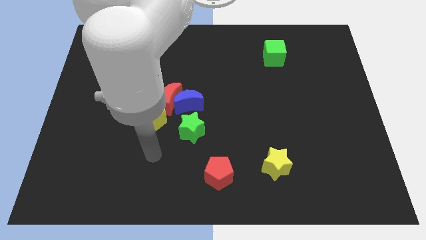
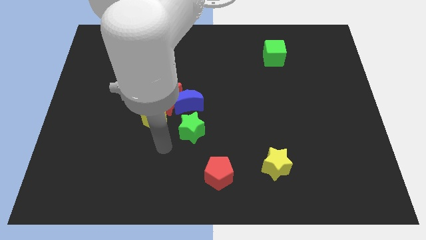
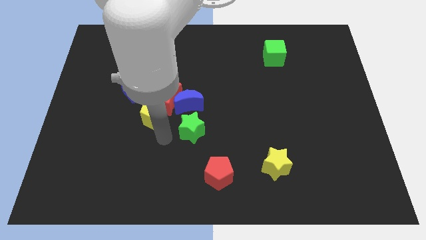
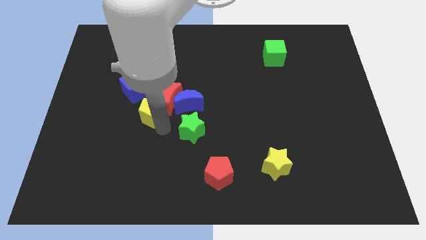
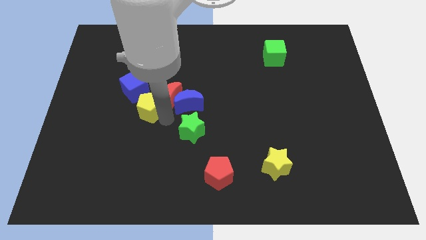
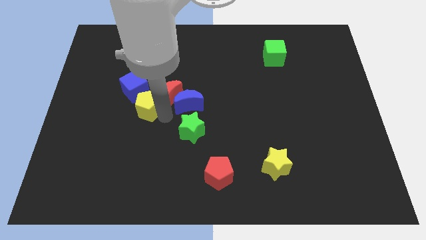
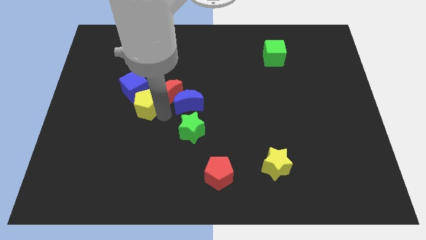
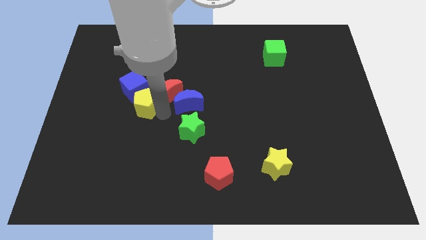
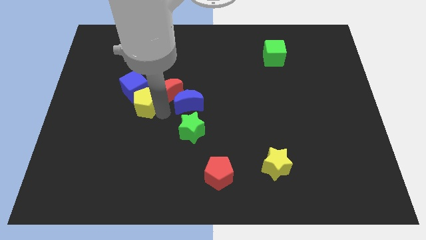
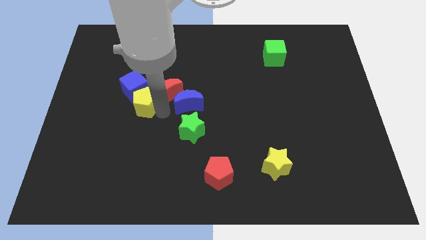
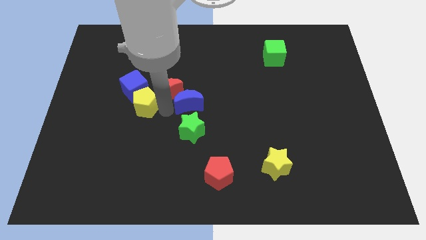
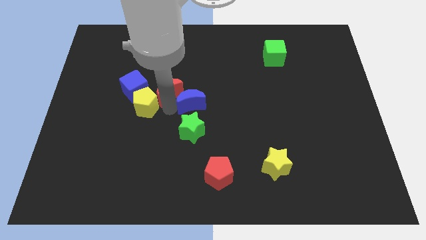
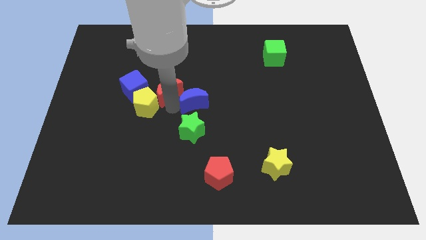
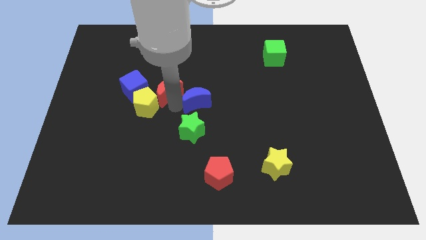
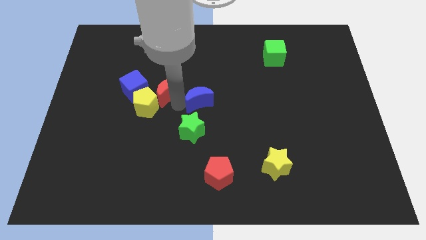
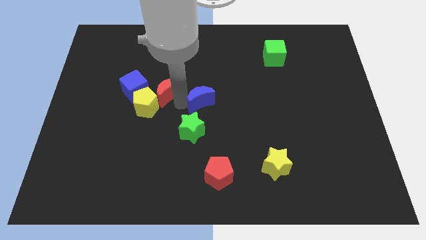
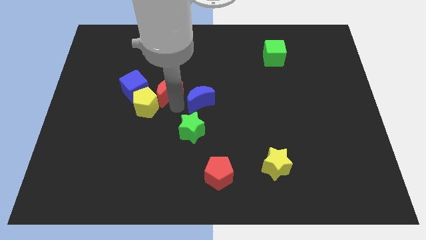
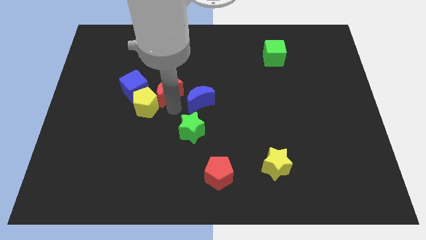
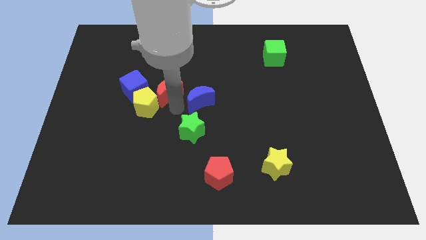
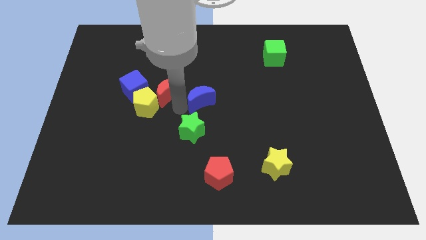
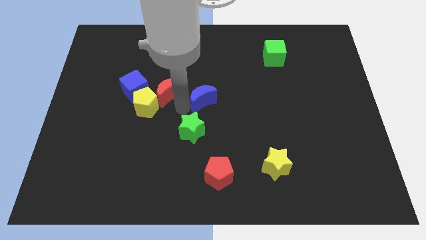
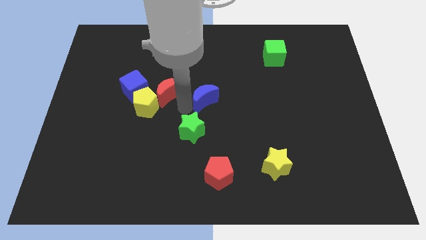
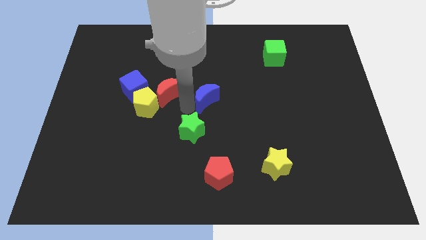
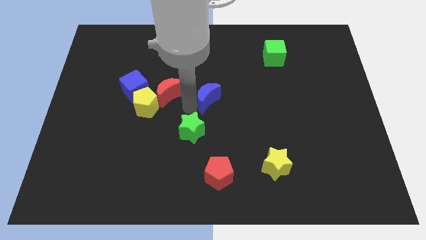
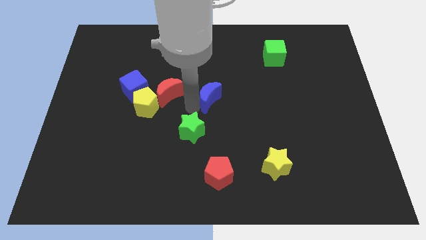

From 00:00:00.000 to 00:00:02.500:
pull the blue moon apart from the red moon, green star, and yellow pentagon

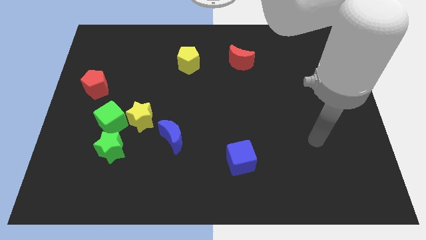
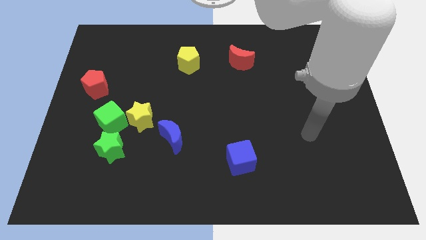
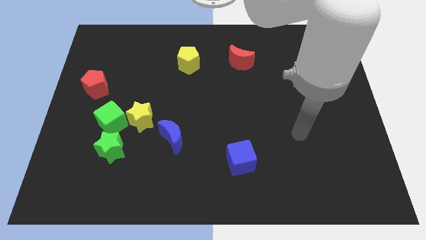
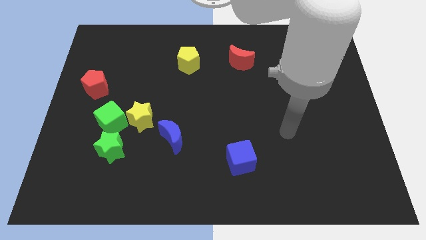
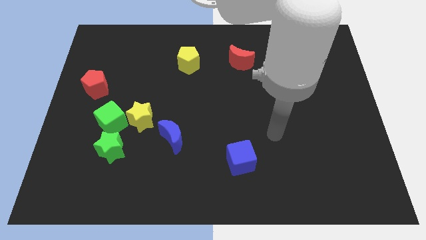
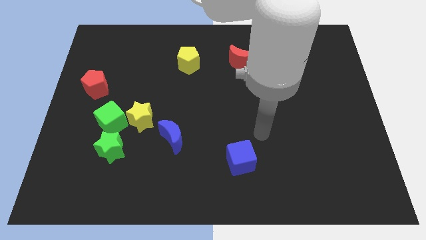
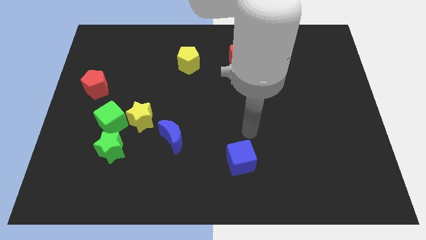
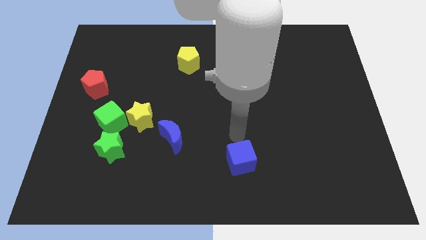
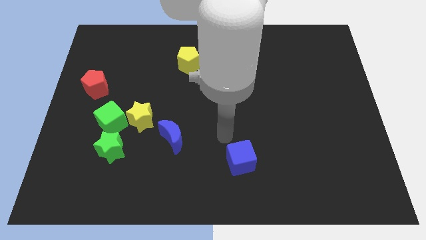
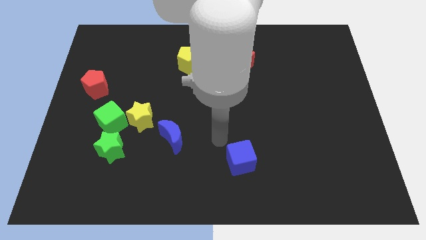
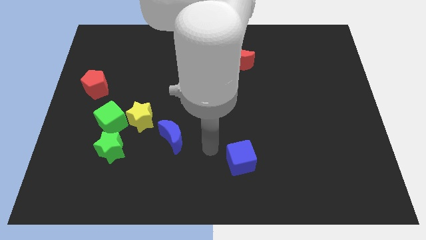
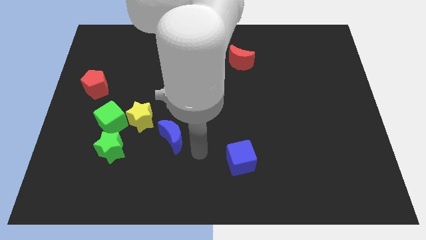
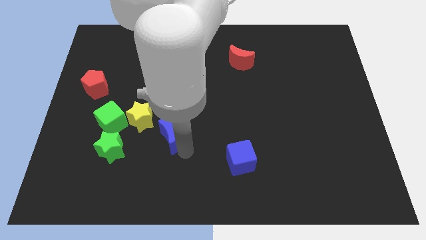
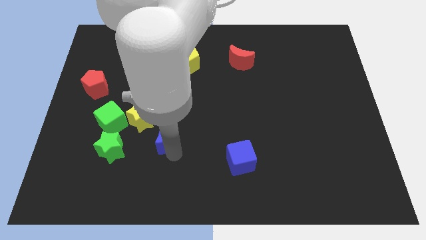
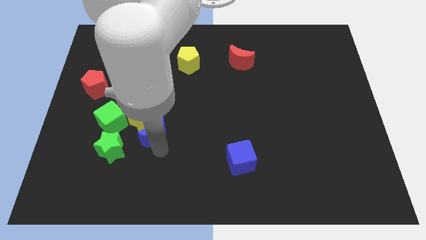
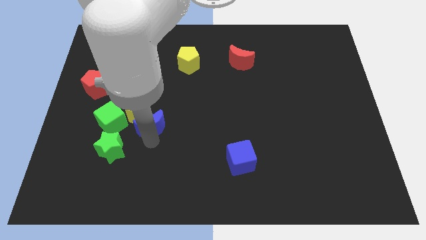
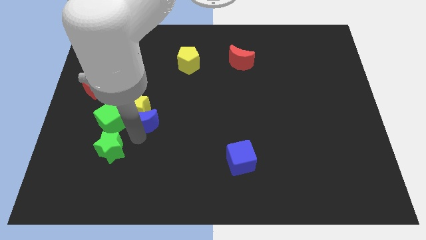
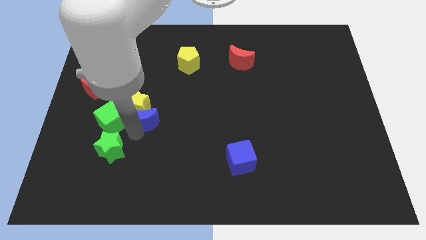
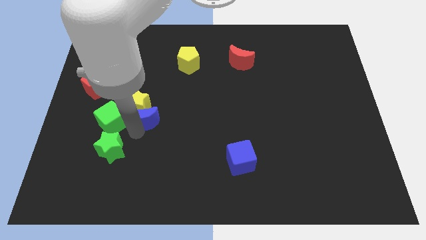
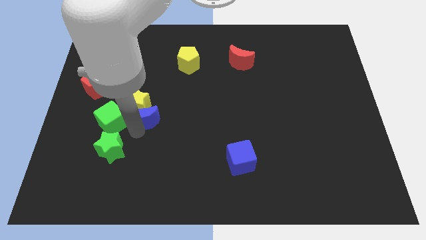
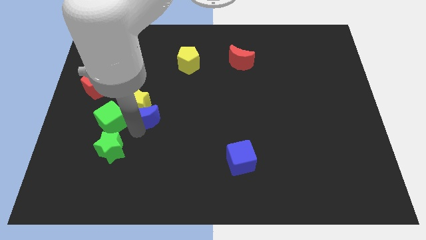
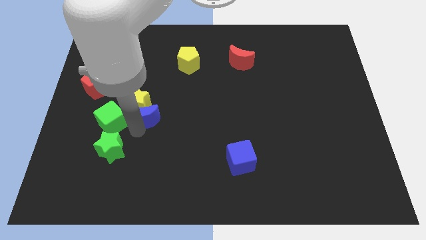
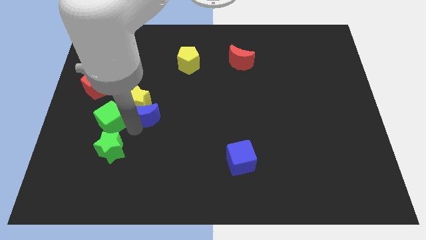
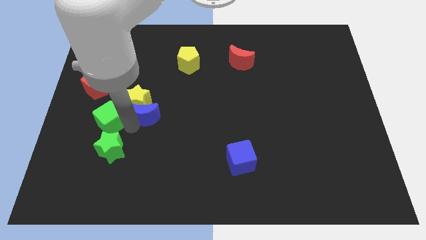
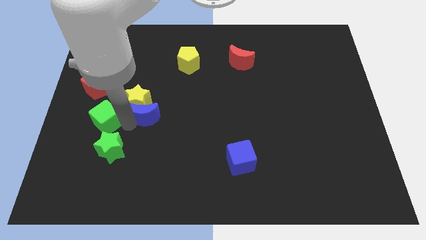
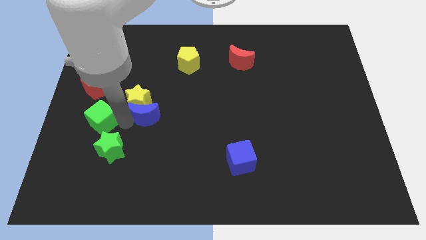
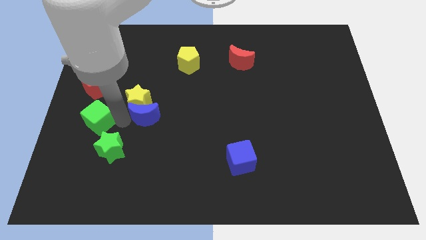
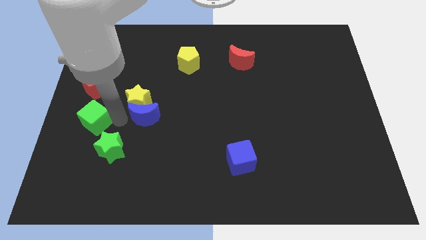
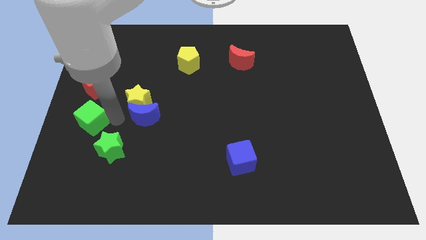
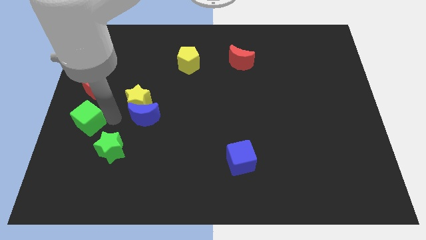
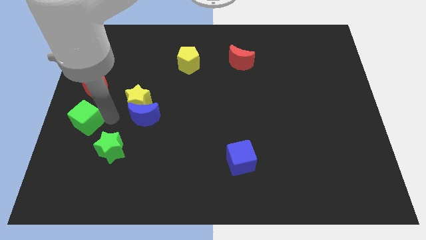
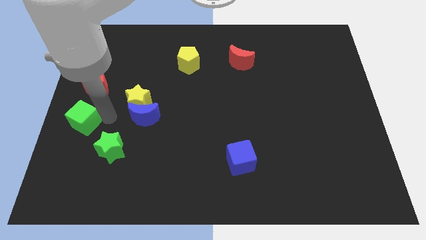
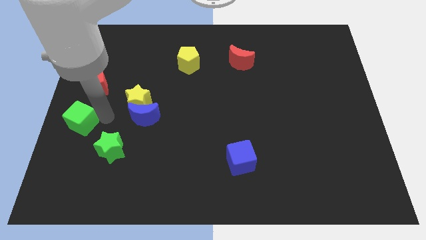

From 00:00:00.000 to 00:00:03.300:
separate the green cube from the yellow star and green star

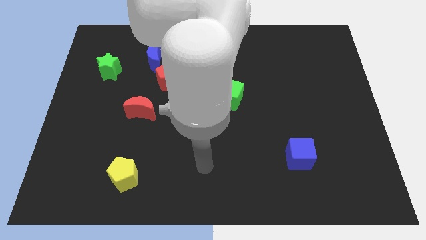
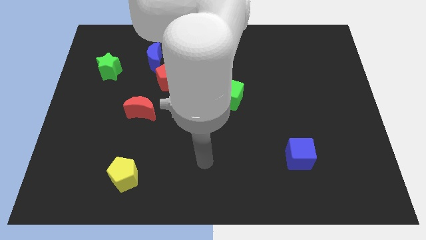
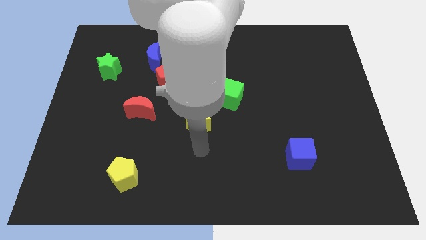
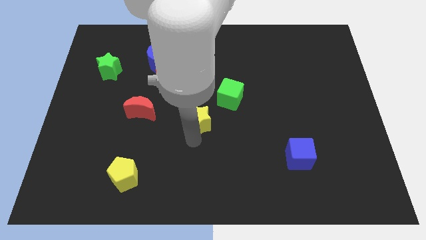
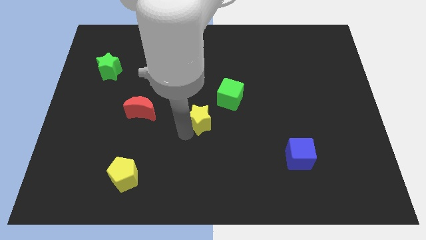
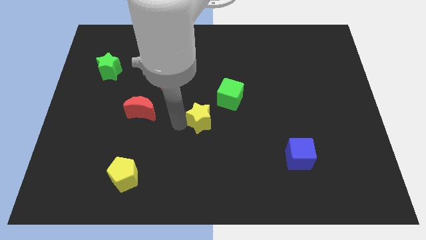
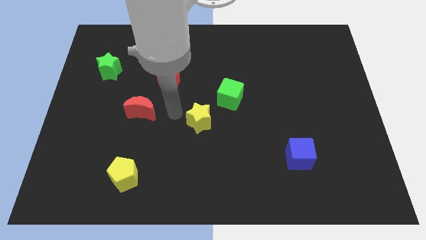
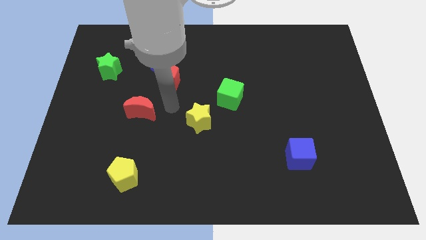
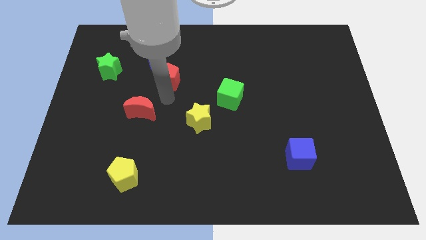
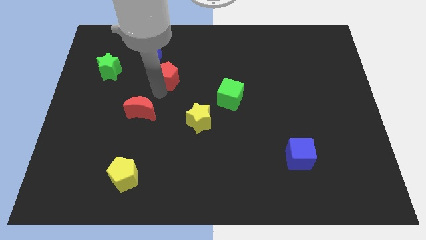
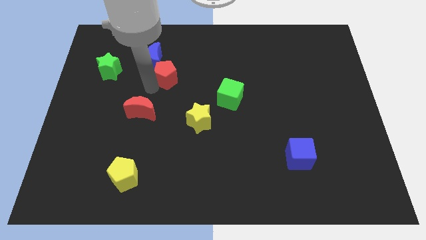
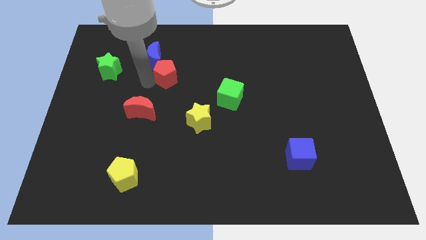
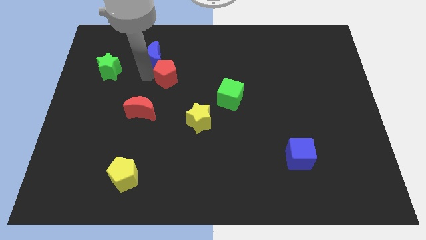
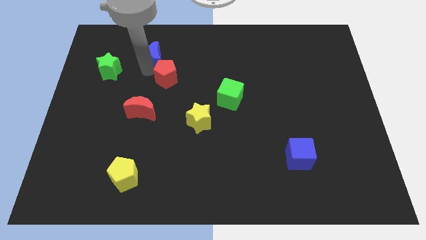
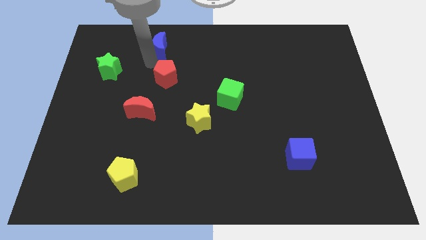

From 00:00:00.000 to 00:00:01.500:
separate the red pentagon from the blue moon

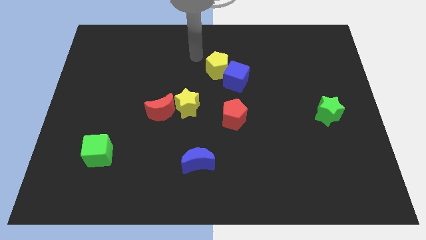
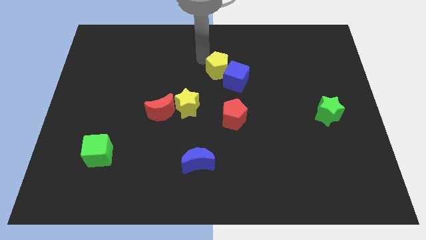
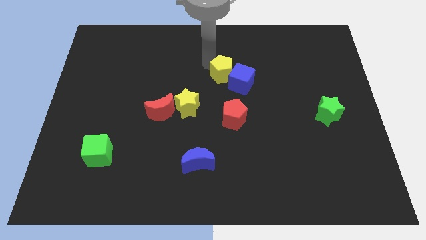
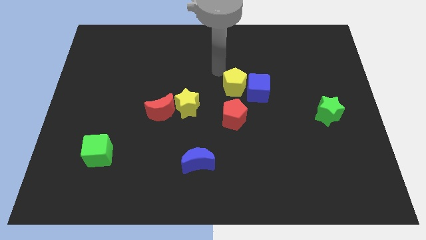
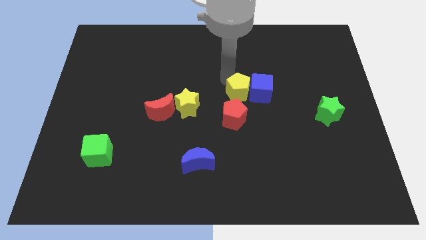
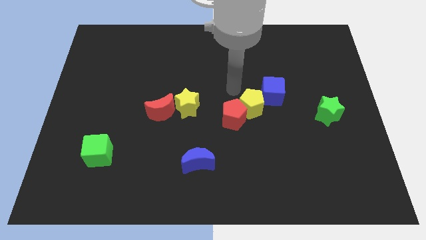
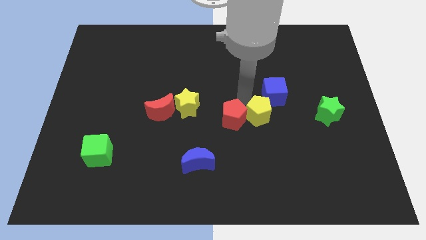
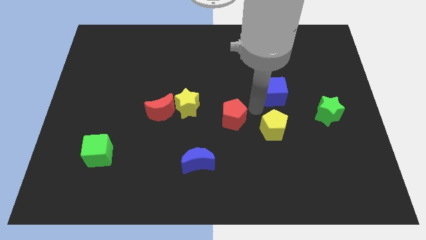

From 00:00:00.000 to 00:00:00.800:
move the blue cube away from the yellow pentagon

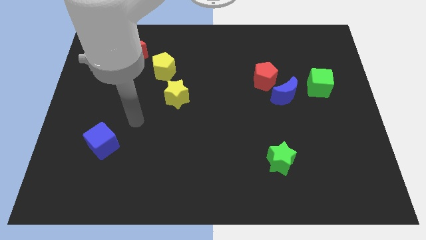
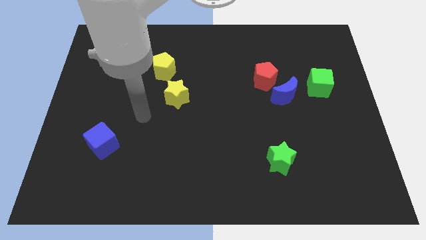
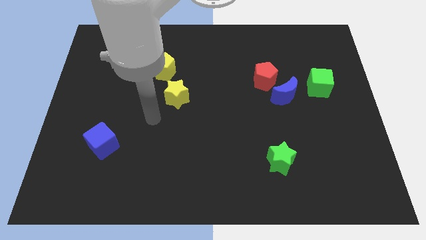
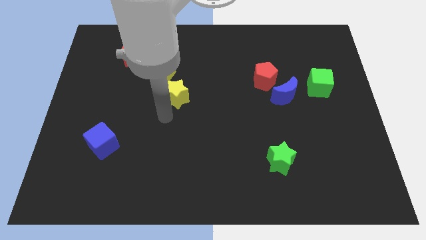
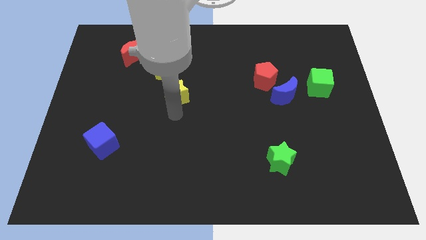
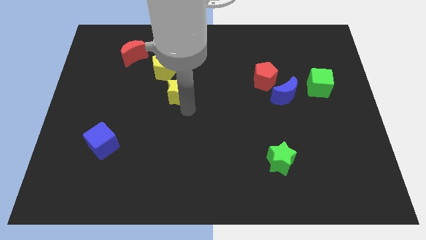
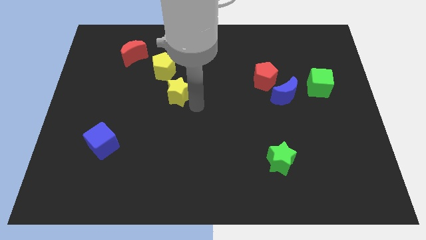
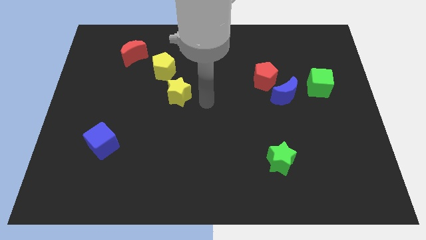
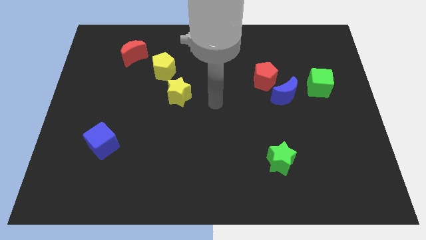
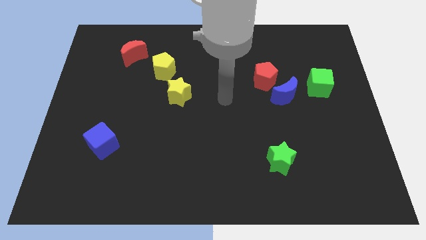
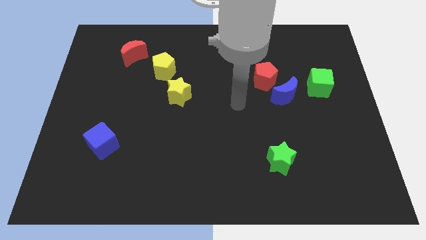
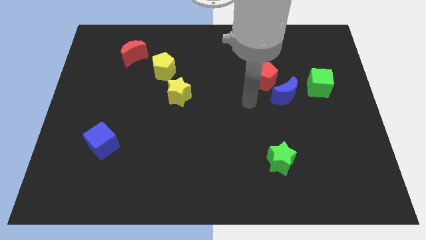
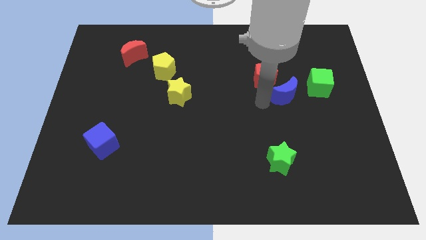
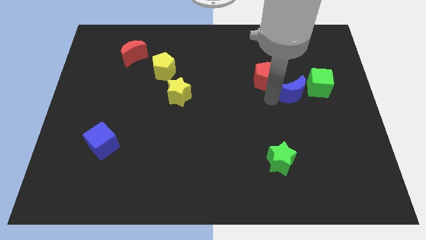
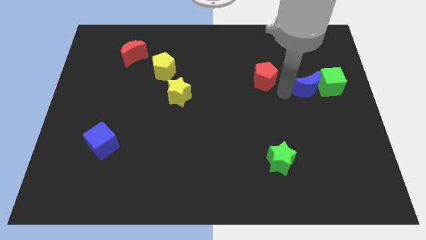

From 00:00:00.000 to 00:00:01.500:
pull the red pentagon apart from the blue moon
